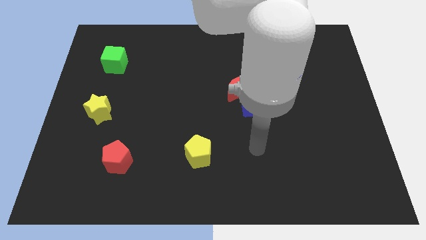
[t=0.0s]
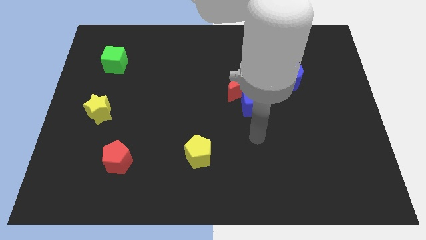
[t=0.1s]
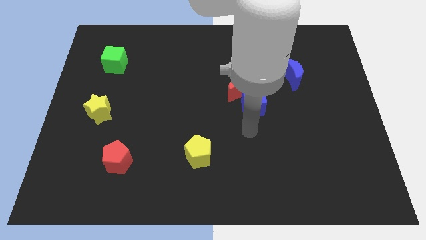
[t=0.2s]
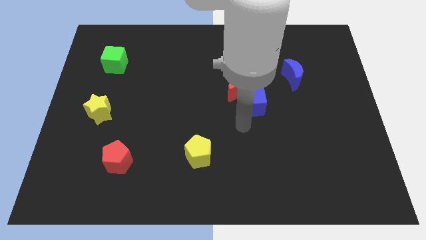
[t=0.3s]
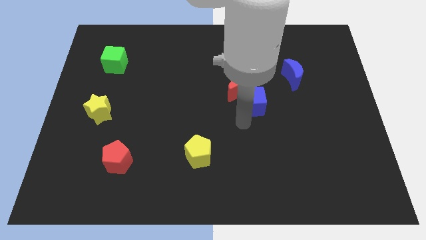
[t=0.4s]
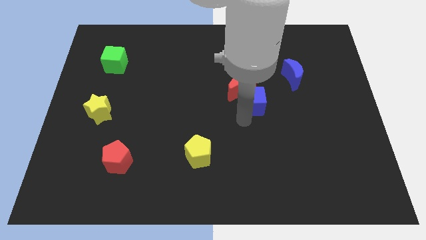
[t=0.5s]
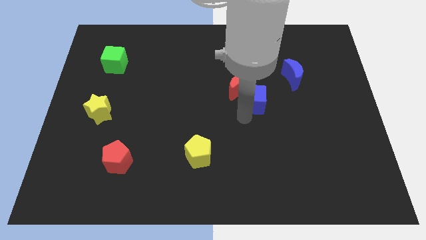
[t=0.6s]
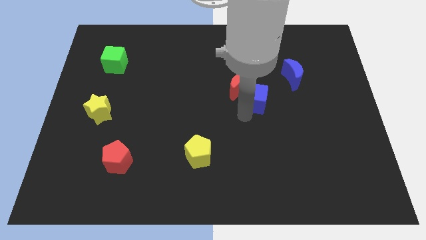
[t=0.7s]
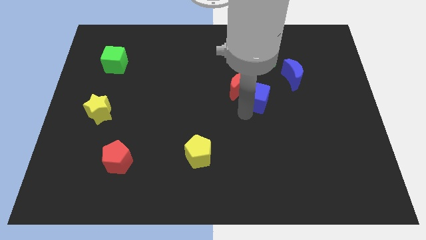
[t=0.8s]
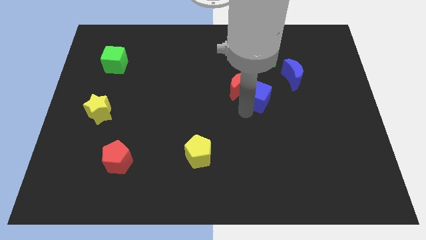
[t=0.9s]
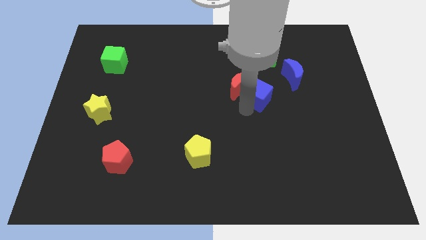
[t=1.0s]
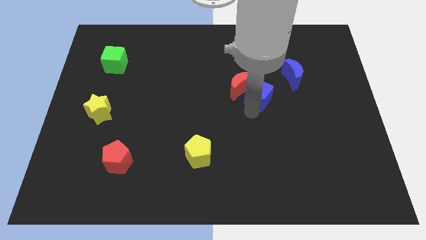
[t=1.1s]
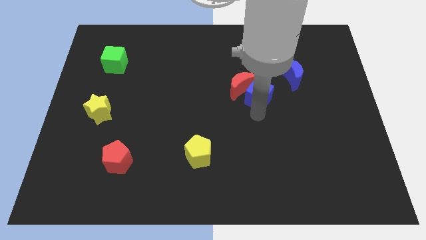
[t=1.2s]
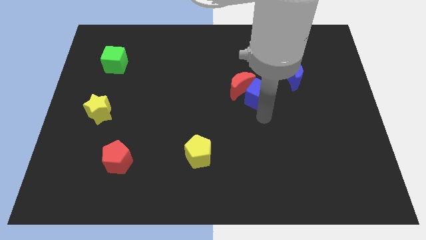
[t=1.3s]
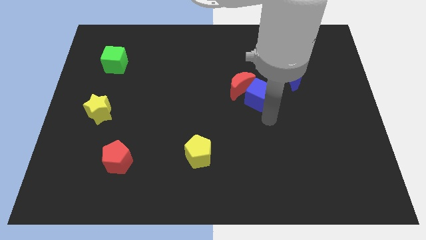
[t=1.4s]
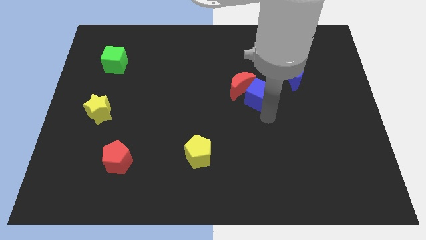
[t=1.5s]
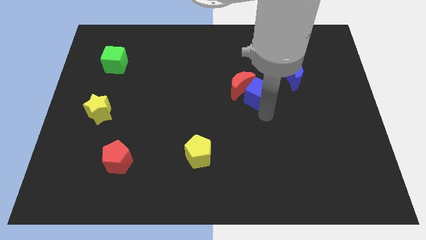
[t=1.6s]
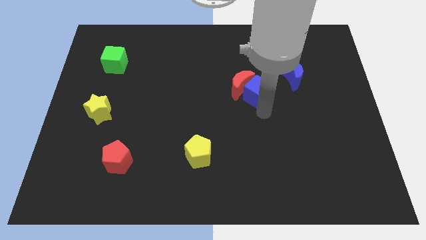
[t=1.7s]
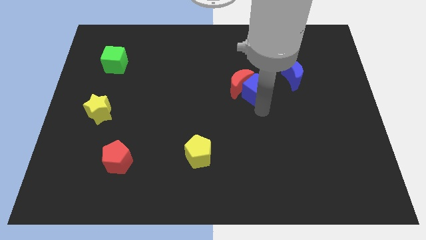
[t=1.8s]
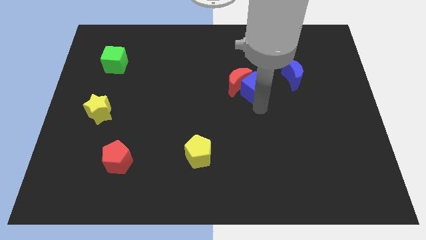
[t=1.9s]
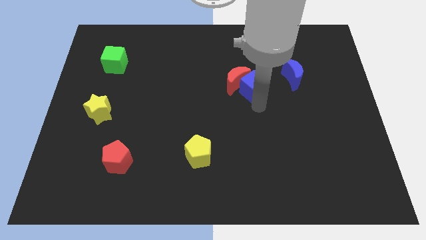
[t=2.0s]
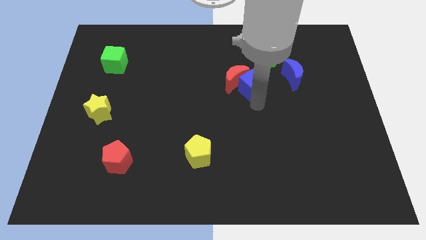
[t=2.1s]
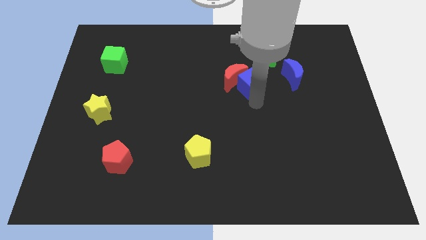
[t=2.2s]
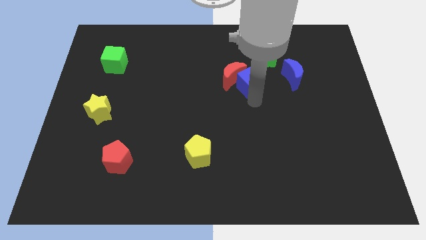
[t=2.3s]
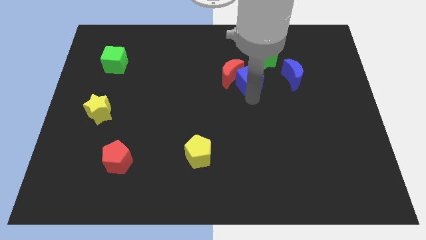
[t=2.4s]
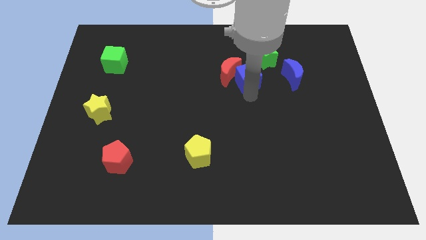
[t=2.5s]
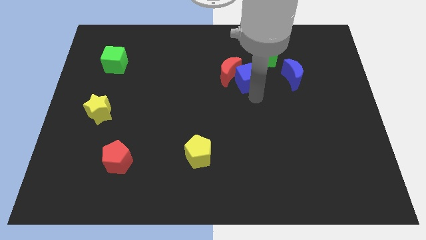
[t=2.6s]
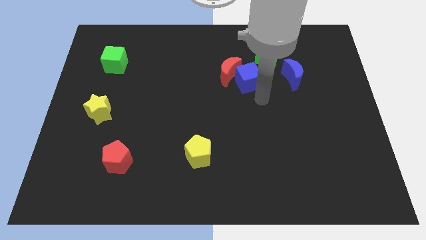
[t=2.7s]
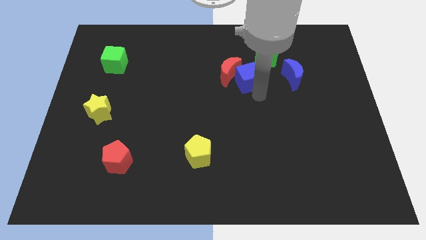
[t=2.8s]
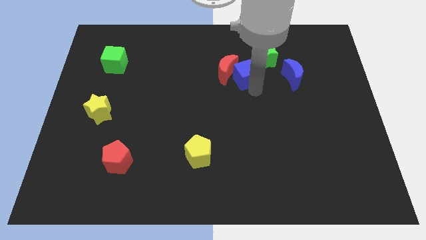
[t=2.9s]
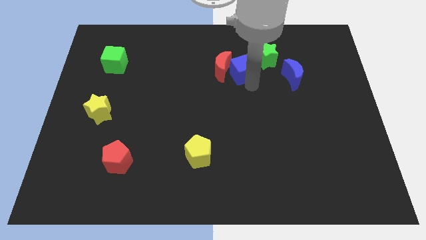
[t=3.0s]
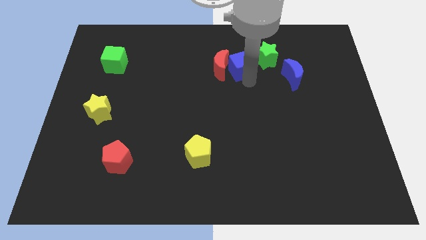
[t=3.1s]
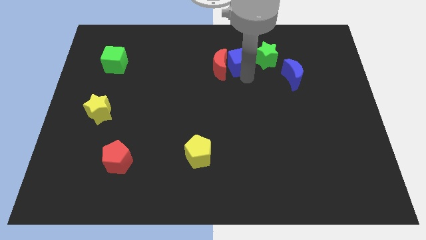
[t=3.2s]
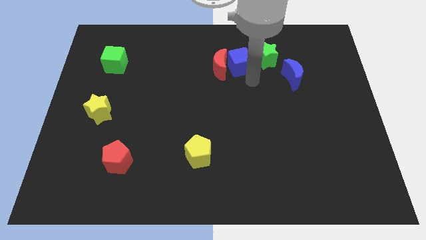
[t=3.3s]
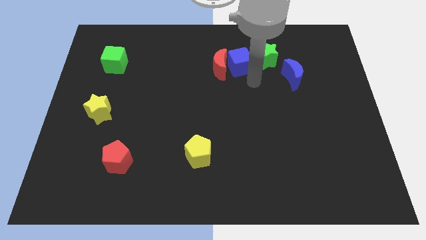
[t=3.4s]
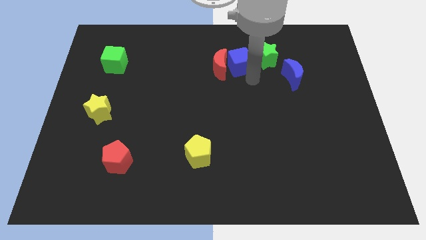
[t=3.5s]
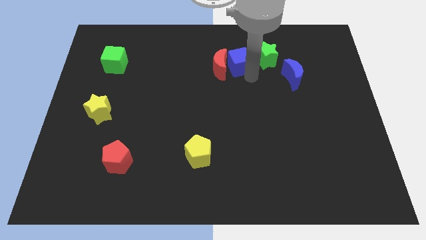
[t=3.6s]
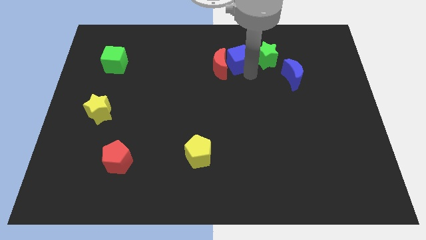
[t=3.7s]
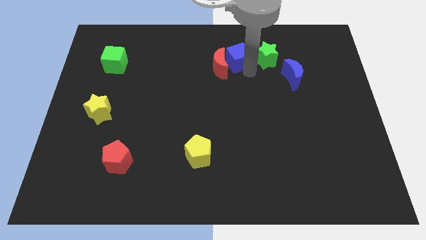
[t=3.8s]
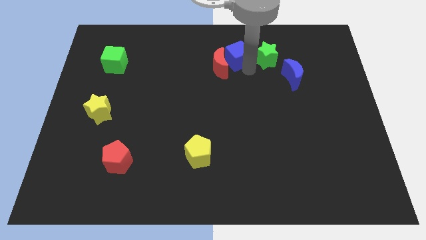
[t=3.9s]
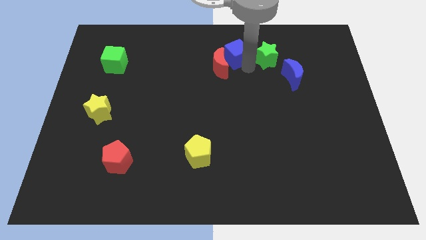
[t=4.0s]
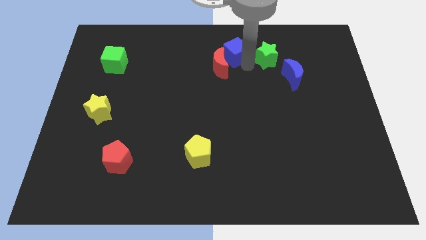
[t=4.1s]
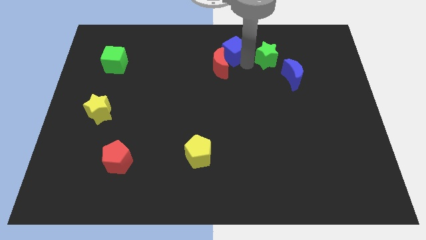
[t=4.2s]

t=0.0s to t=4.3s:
push the blue cube to the towards your base

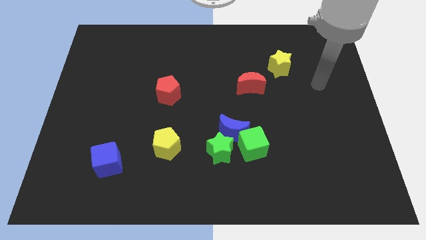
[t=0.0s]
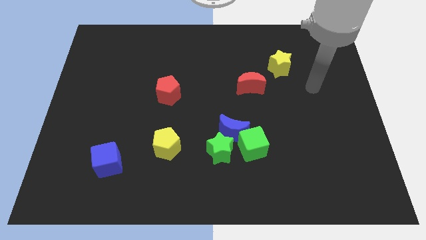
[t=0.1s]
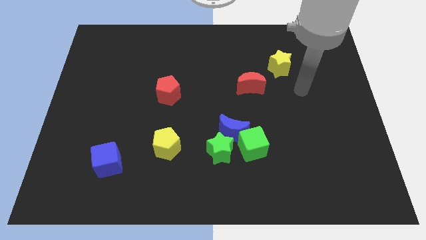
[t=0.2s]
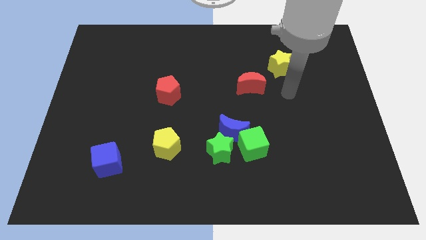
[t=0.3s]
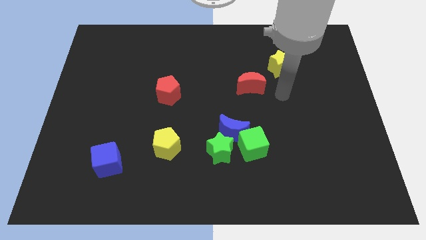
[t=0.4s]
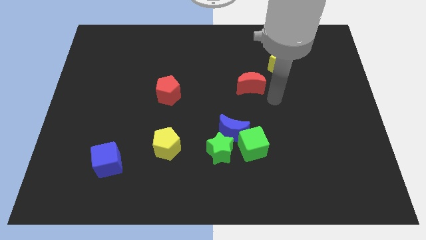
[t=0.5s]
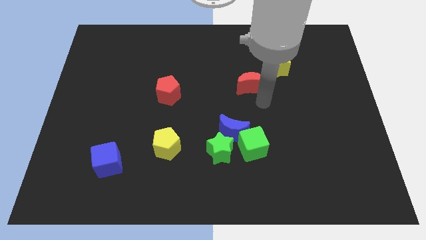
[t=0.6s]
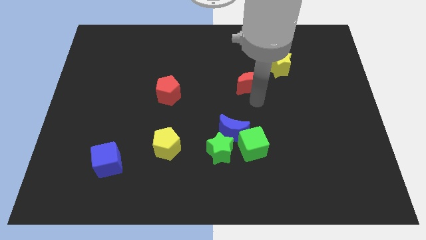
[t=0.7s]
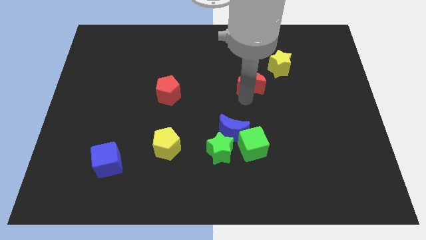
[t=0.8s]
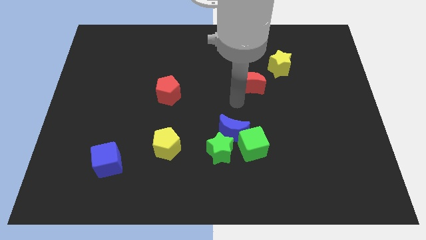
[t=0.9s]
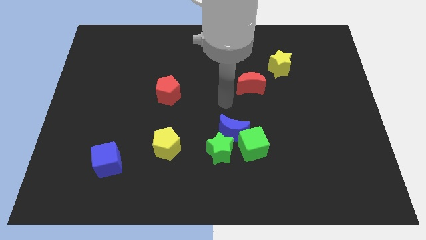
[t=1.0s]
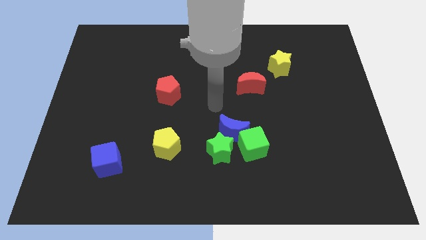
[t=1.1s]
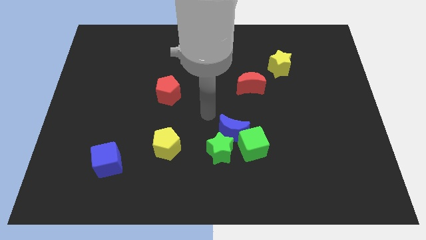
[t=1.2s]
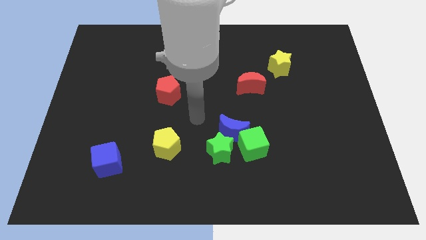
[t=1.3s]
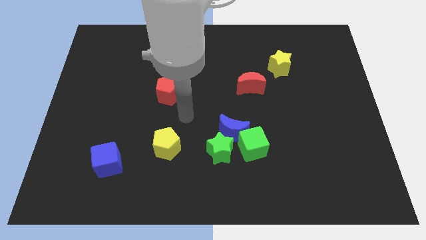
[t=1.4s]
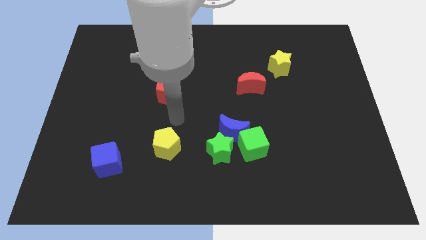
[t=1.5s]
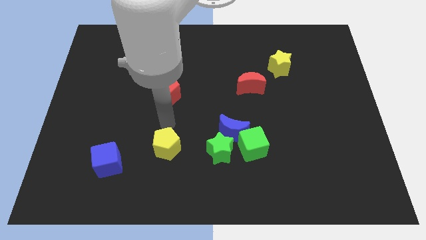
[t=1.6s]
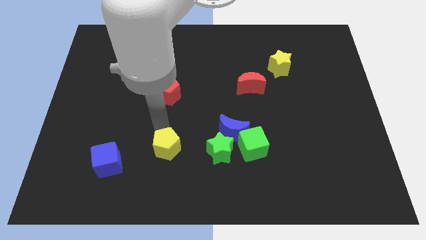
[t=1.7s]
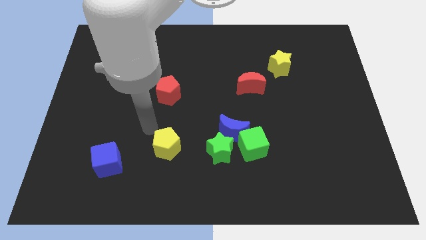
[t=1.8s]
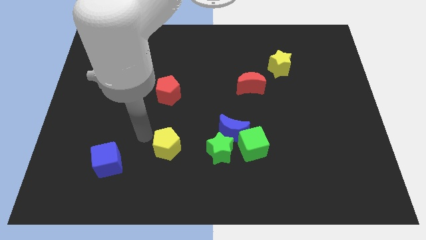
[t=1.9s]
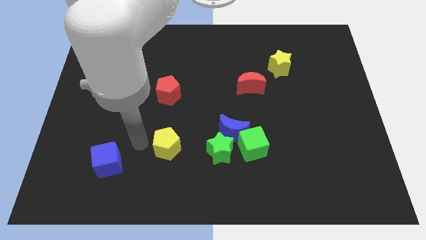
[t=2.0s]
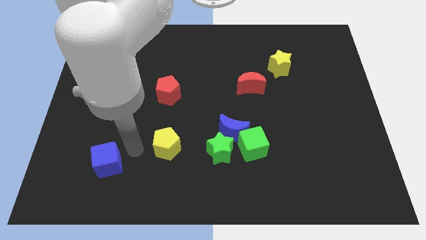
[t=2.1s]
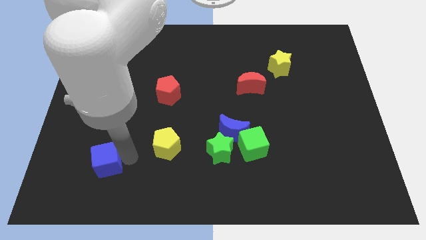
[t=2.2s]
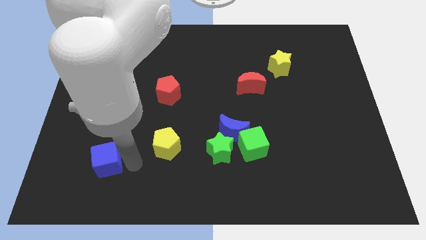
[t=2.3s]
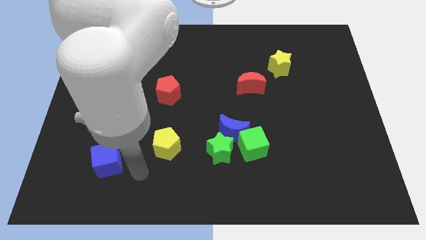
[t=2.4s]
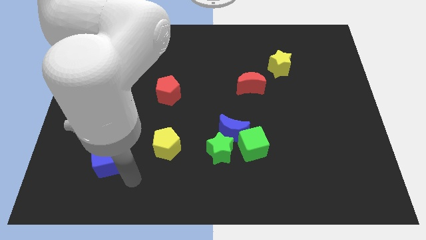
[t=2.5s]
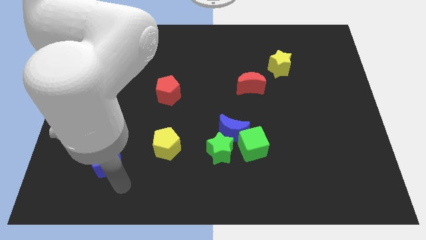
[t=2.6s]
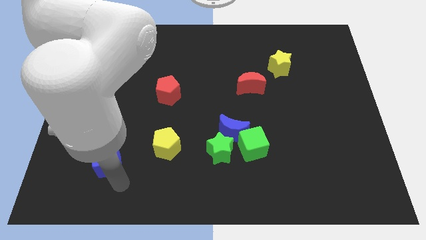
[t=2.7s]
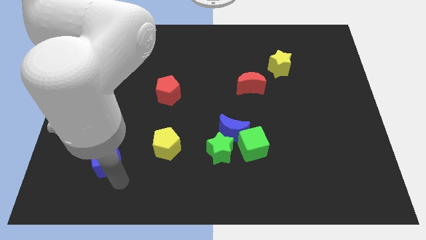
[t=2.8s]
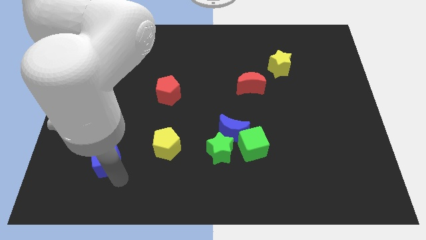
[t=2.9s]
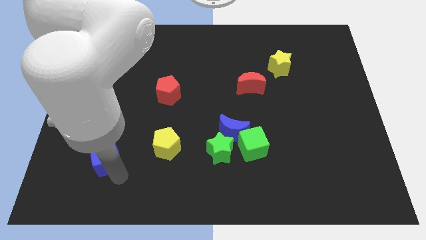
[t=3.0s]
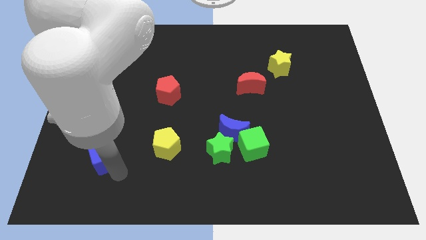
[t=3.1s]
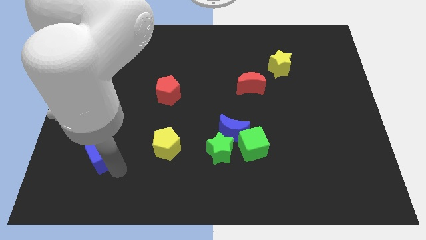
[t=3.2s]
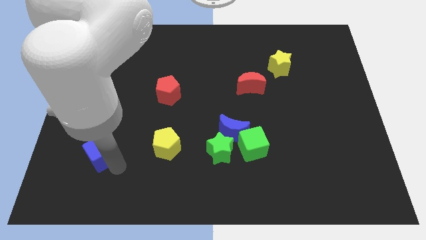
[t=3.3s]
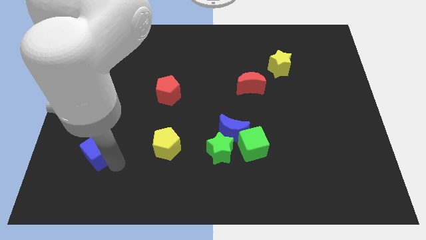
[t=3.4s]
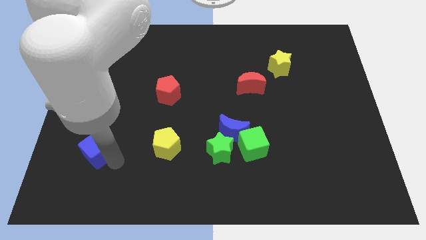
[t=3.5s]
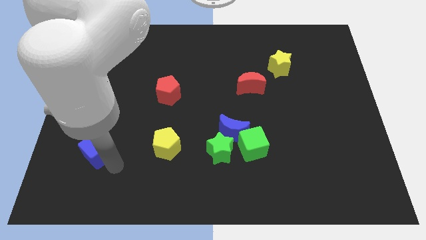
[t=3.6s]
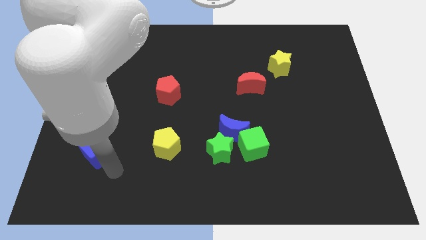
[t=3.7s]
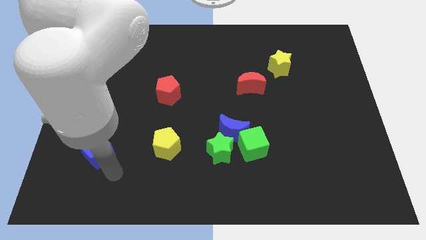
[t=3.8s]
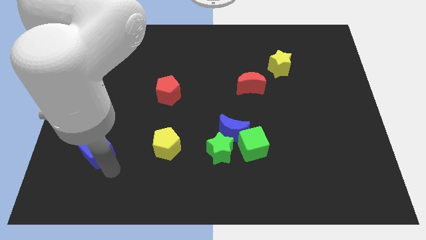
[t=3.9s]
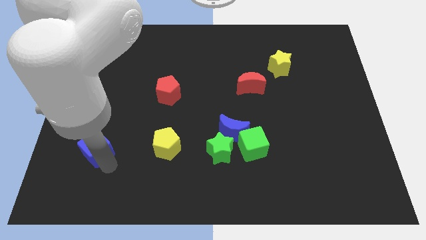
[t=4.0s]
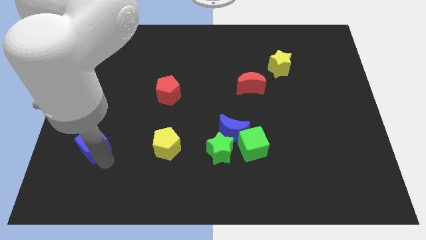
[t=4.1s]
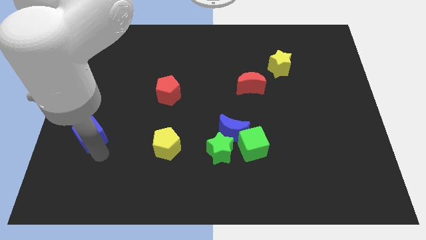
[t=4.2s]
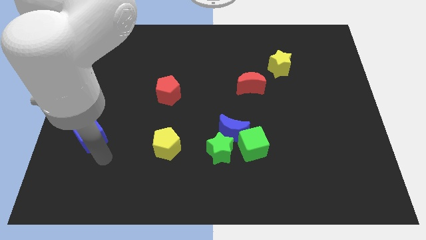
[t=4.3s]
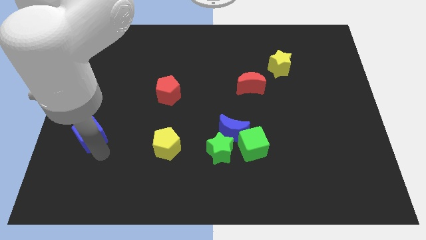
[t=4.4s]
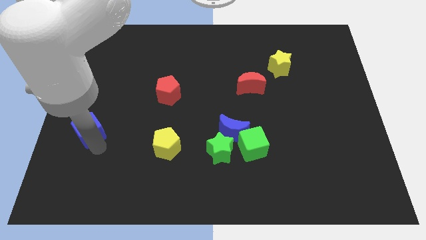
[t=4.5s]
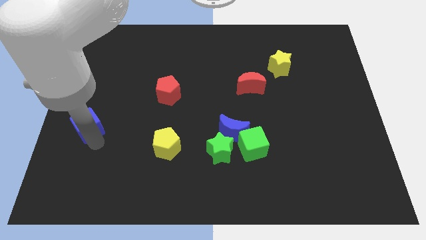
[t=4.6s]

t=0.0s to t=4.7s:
put the blue cube to the center left
